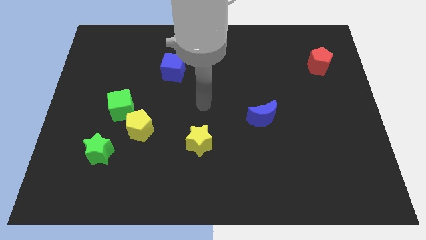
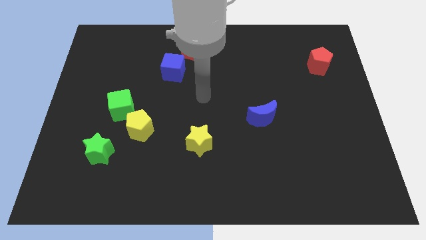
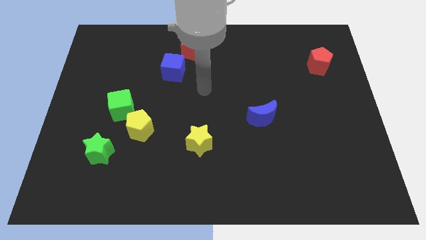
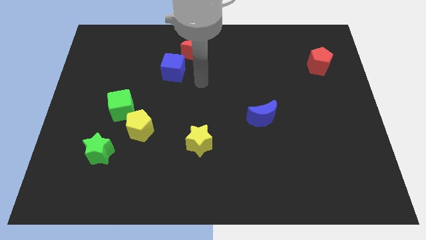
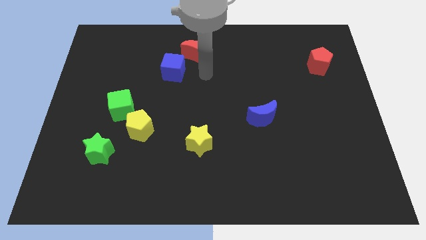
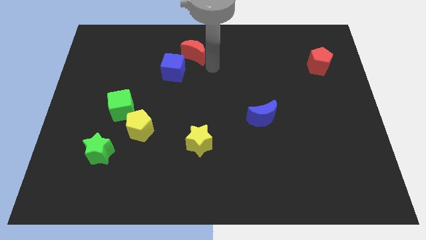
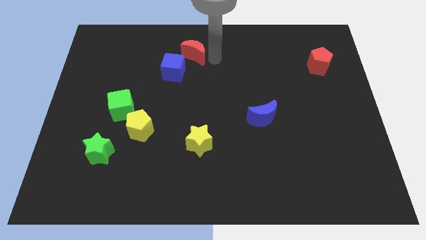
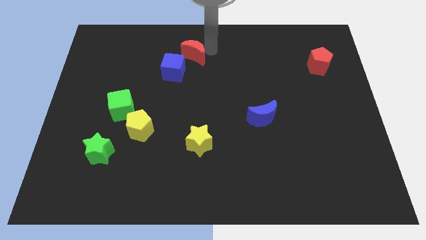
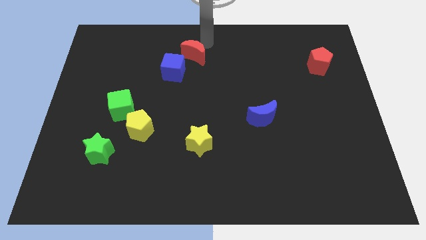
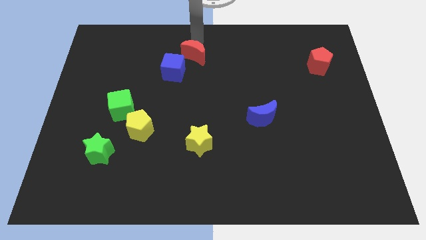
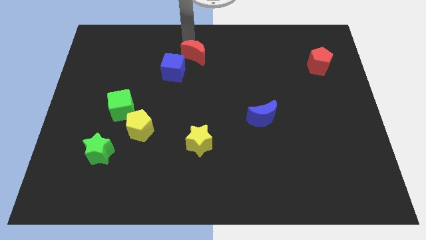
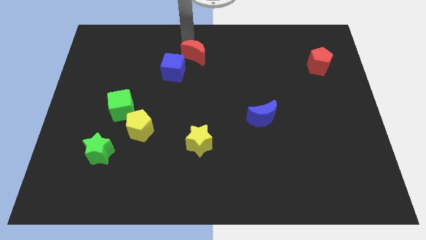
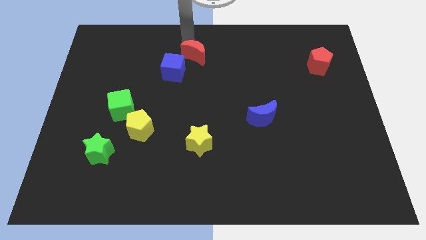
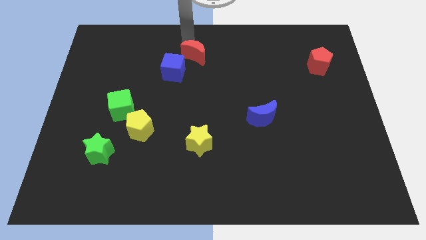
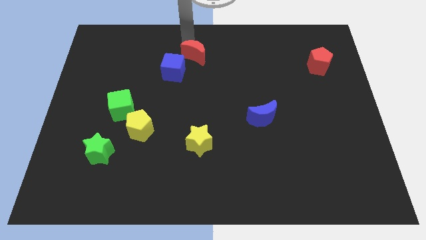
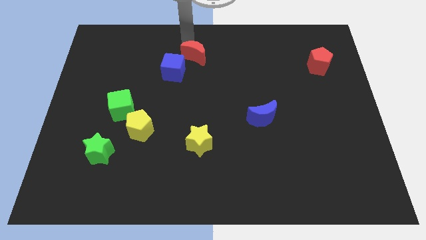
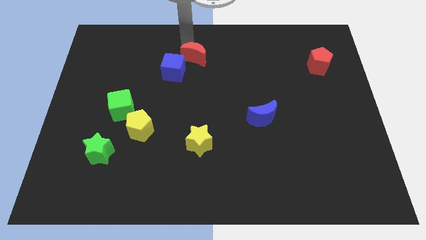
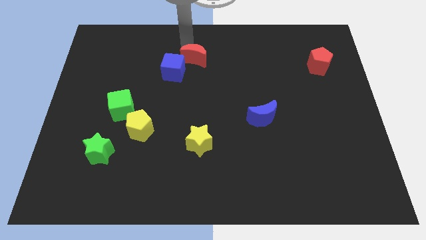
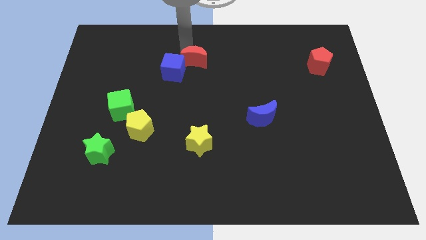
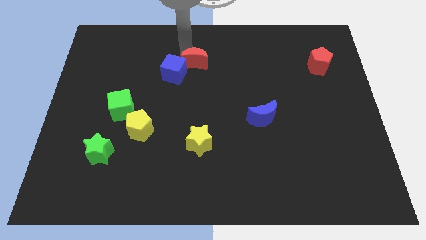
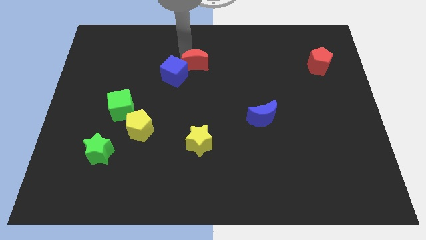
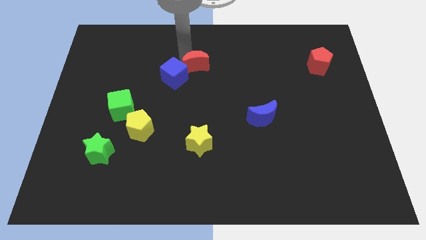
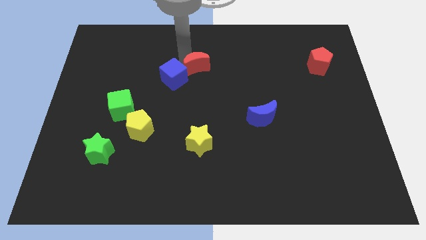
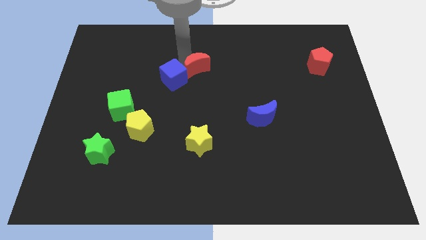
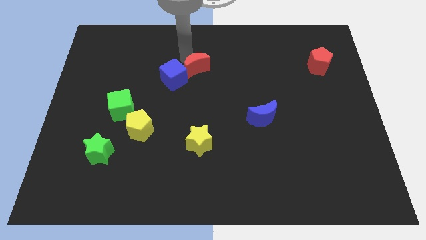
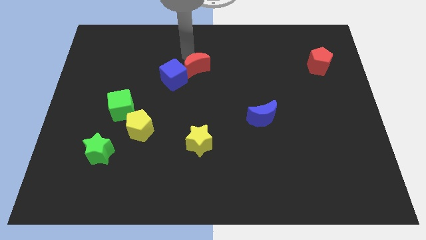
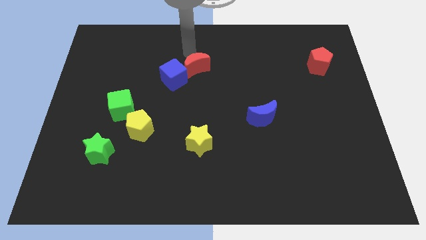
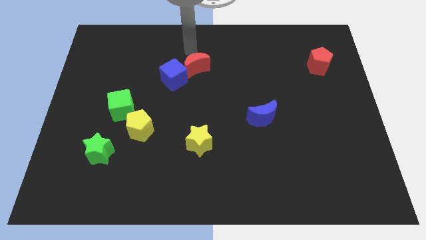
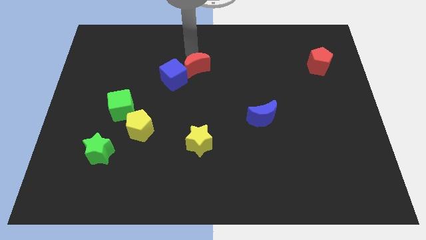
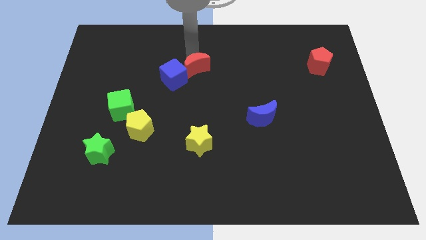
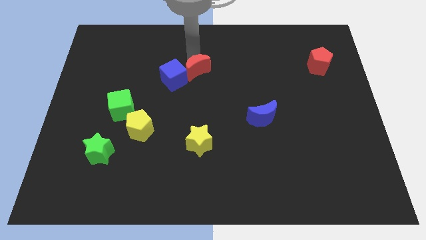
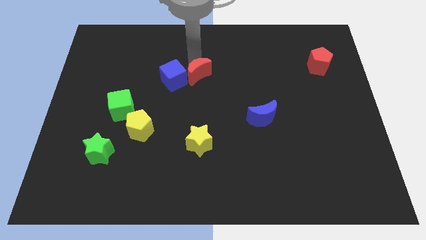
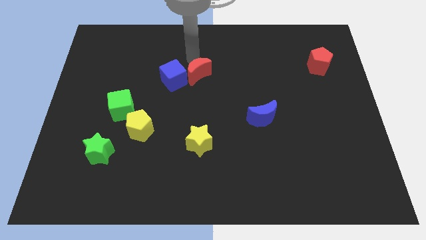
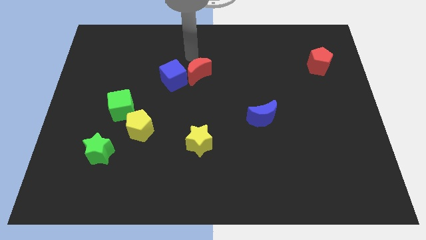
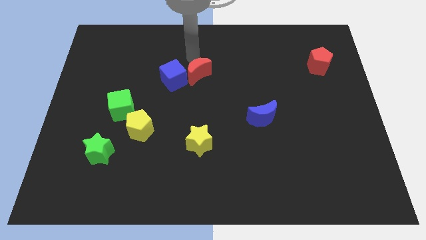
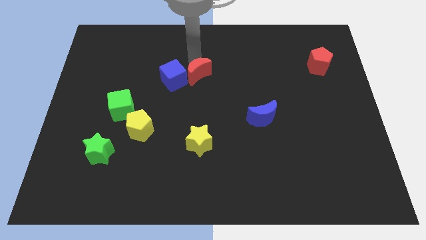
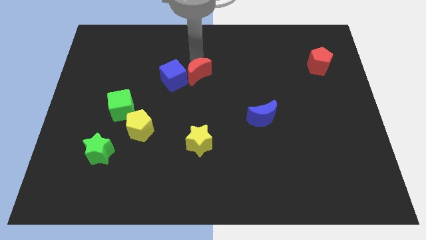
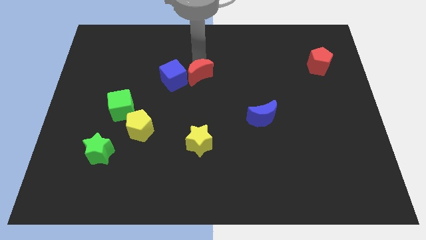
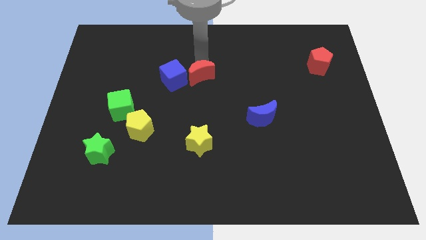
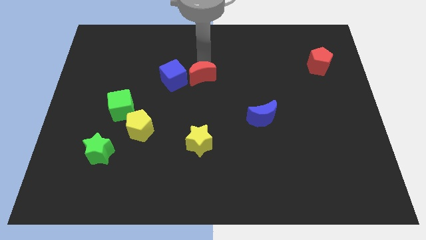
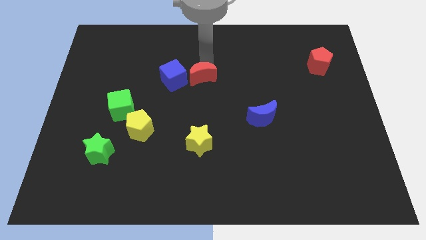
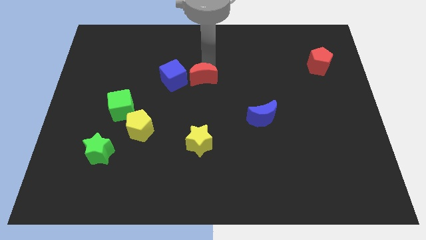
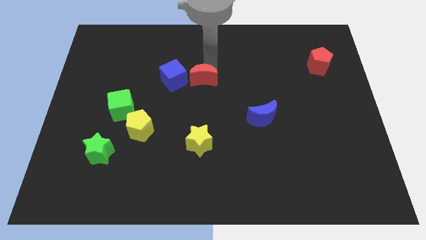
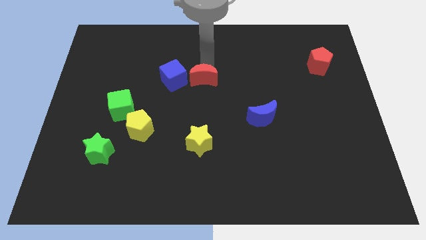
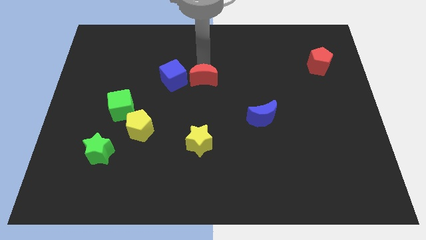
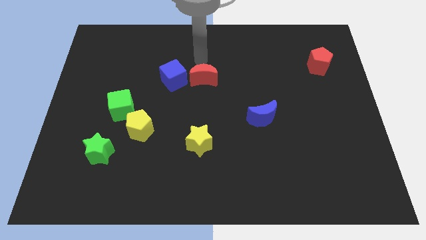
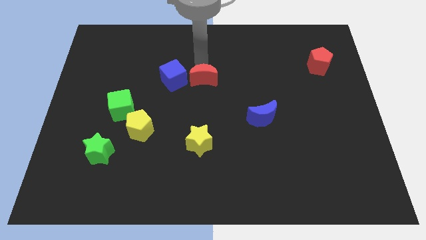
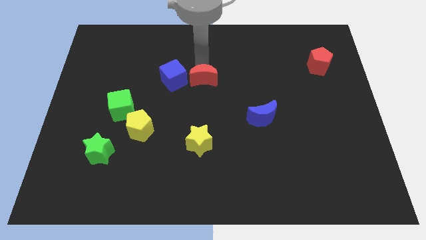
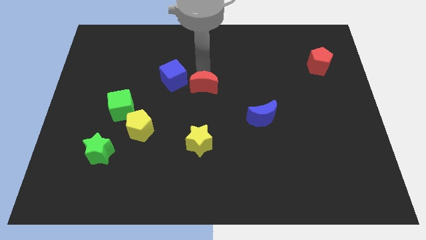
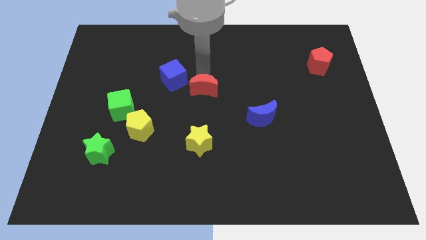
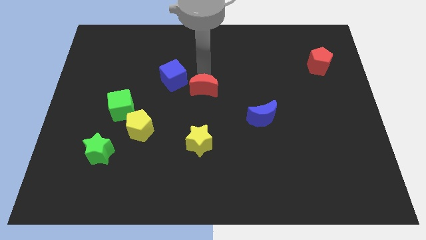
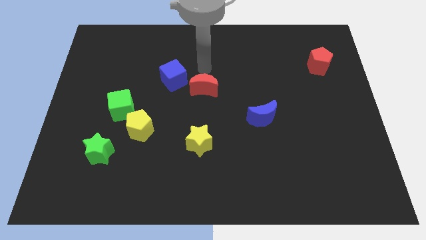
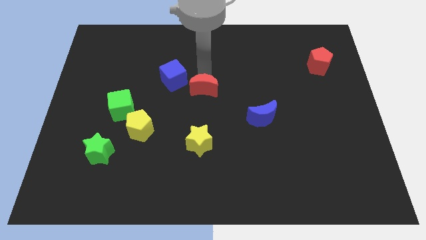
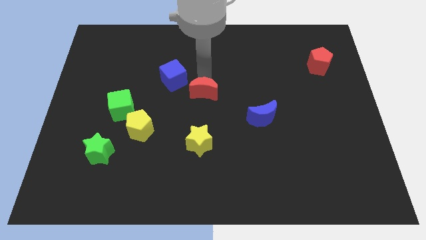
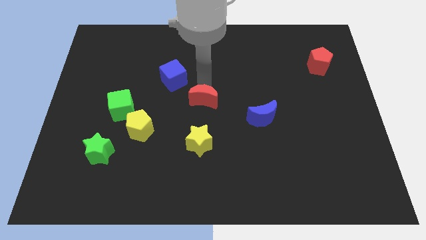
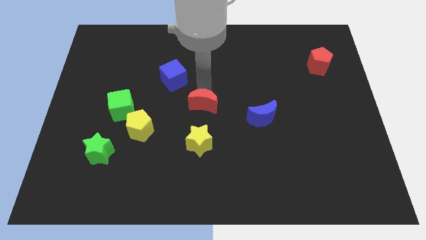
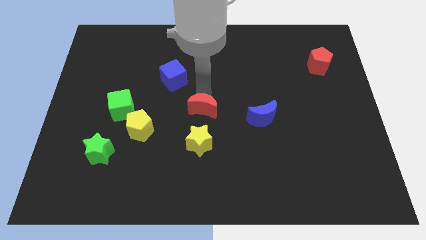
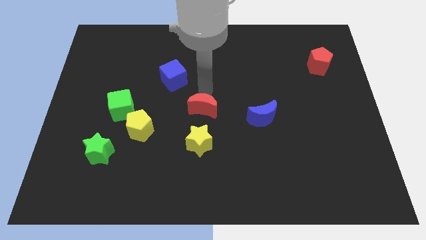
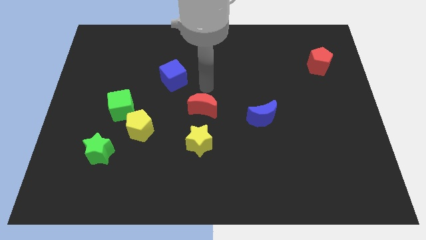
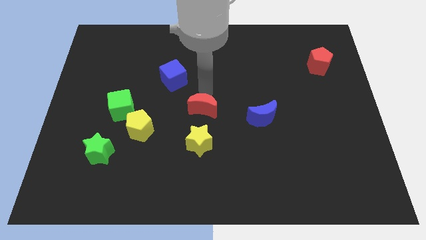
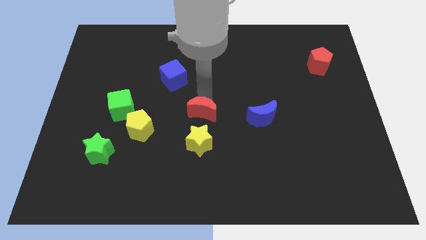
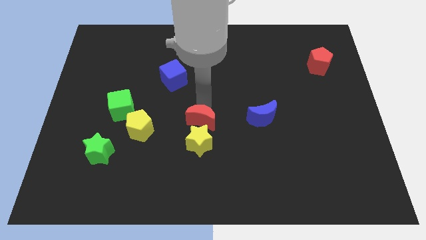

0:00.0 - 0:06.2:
push the red moon towards the yellow star

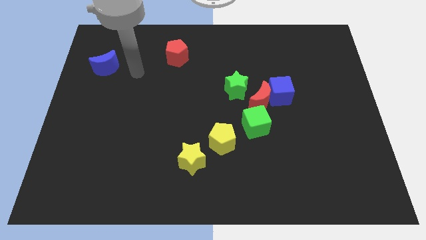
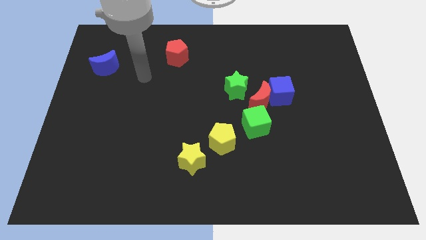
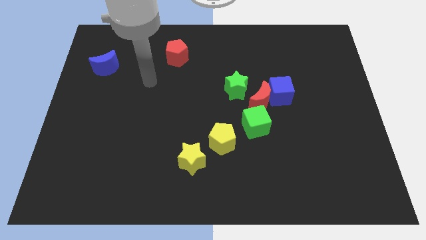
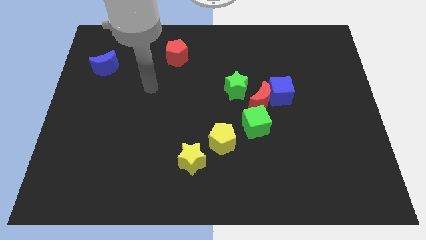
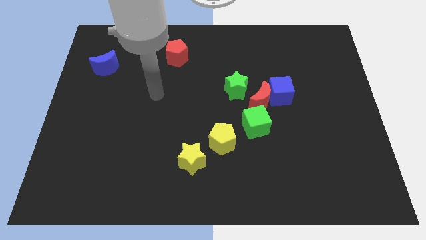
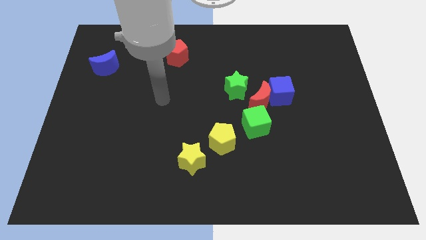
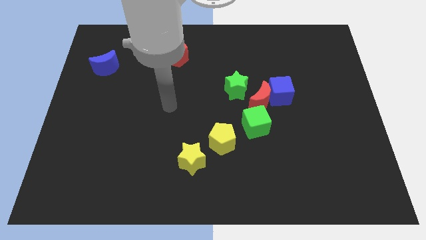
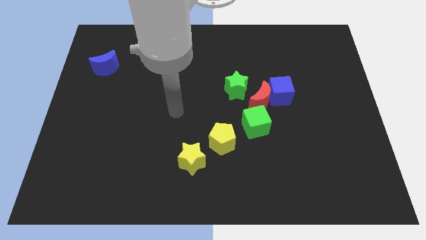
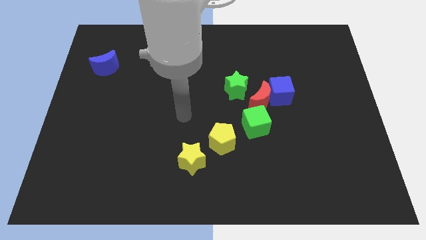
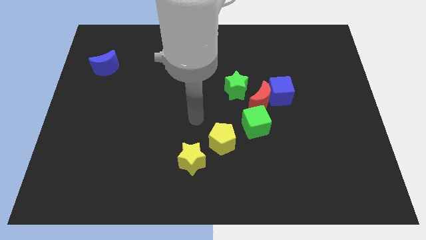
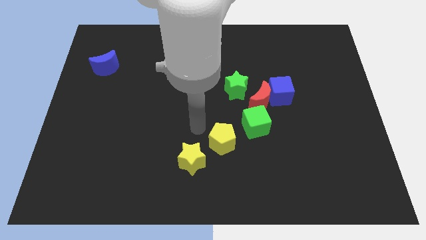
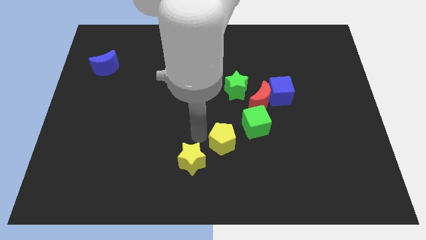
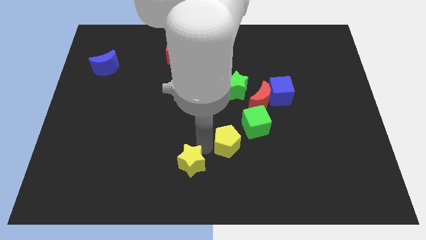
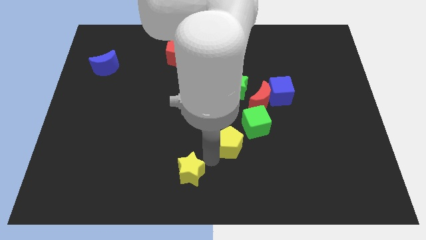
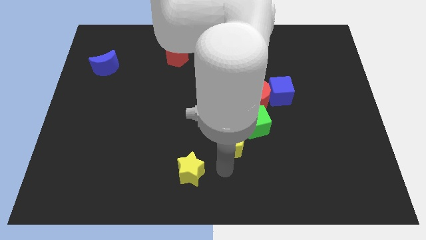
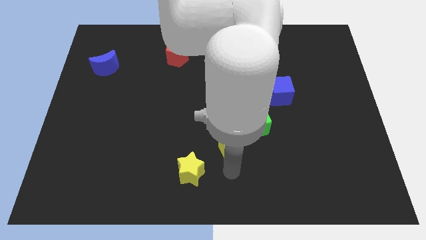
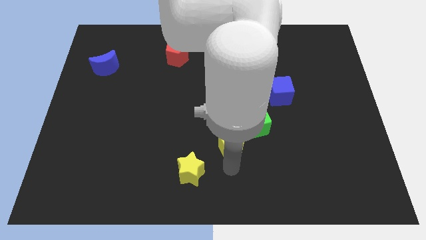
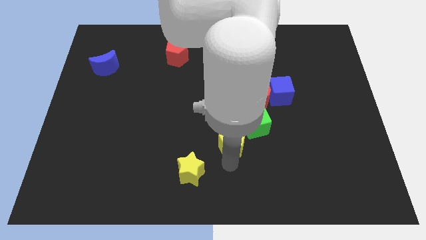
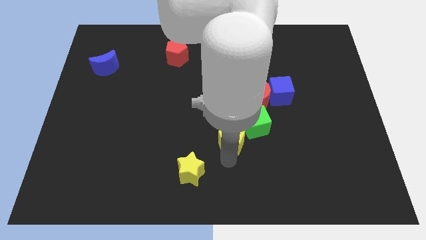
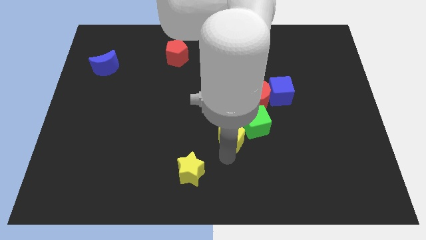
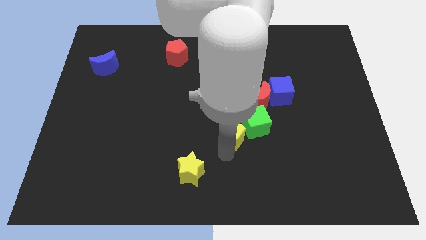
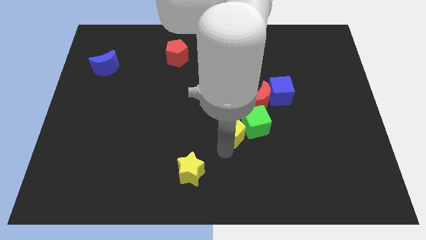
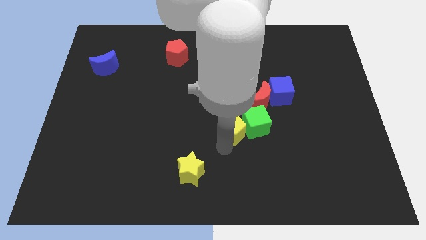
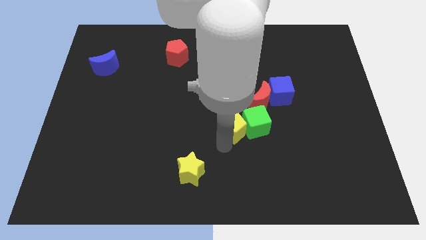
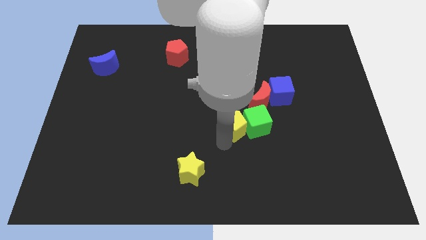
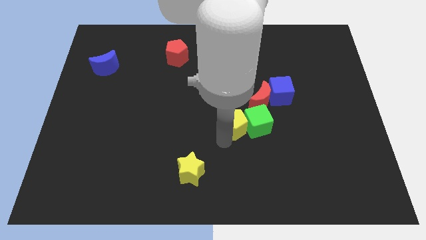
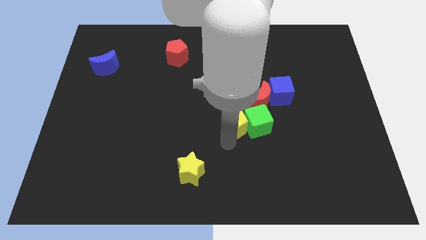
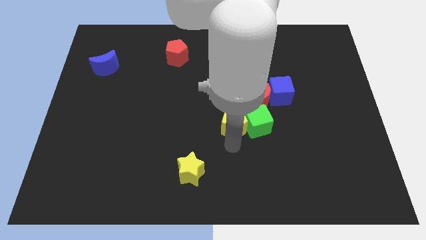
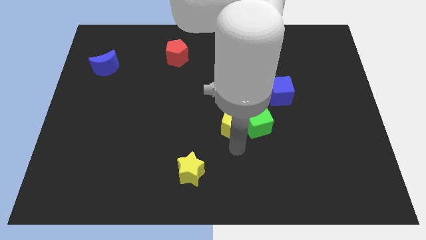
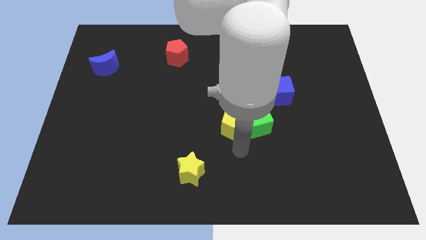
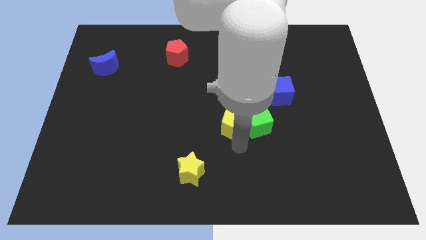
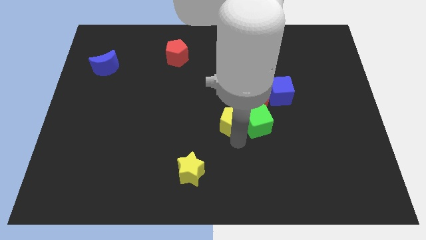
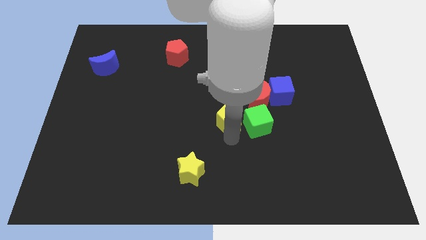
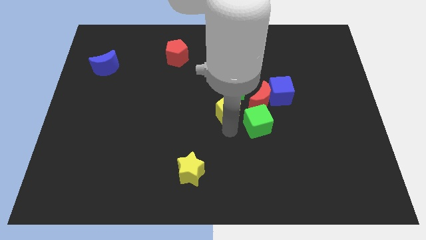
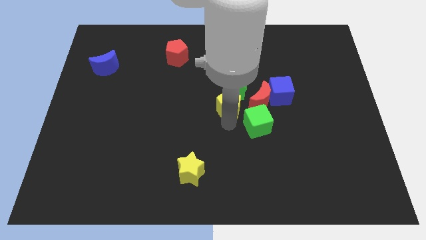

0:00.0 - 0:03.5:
push the yellow pentagon to the green star
